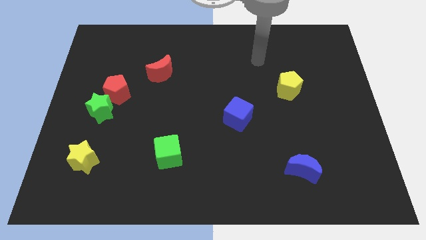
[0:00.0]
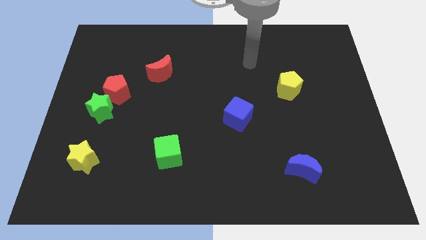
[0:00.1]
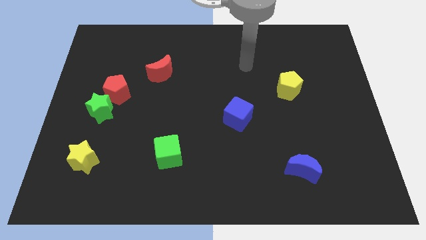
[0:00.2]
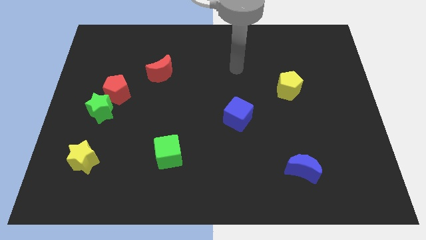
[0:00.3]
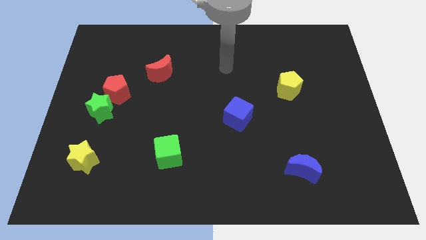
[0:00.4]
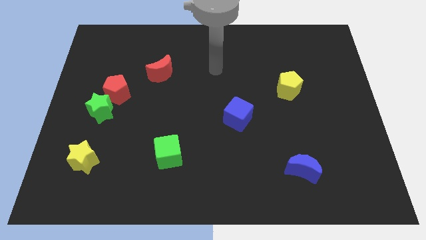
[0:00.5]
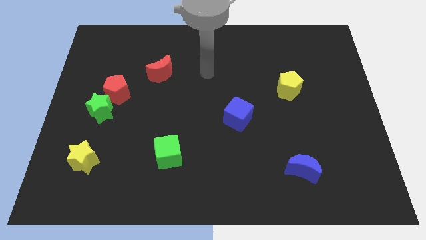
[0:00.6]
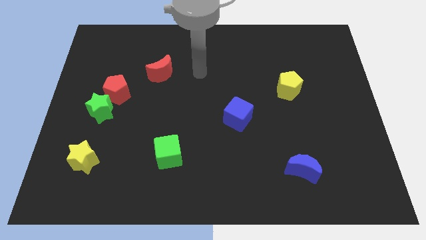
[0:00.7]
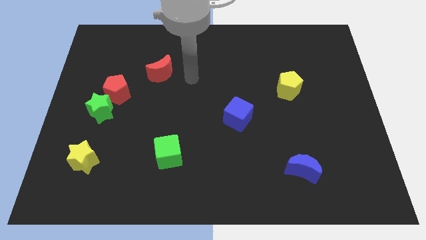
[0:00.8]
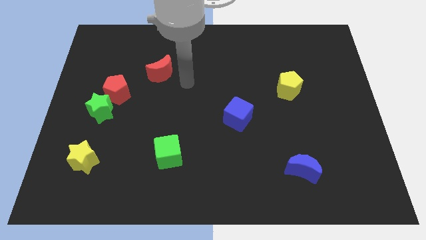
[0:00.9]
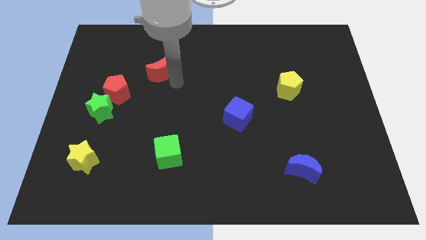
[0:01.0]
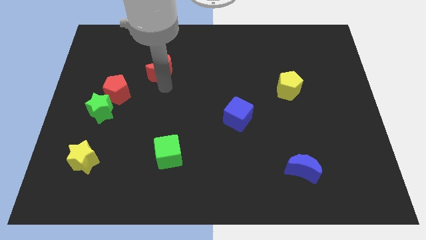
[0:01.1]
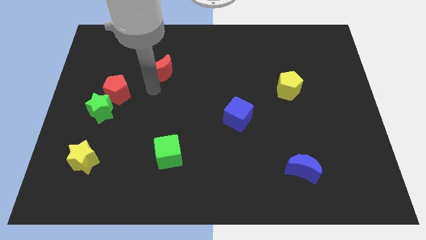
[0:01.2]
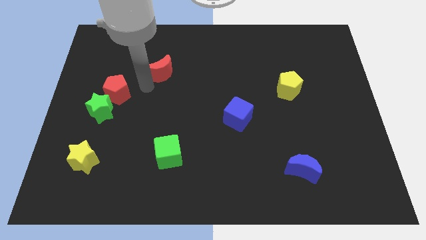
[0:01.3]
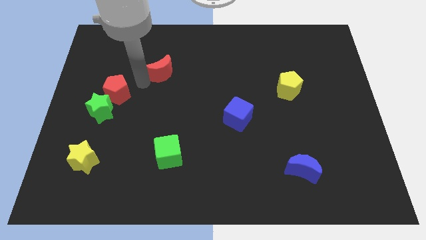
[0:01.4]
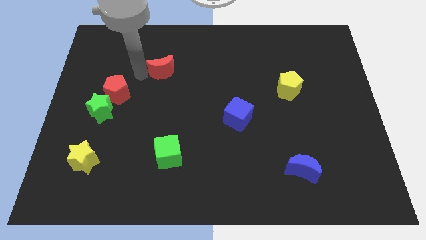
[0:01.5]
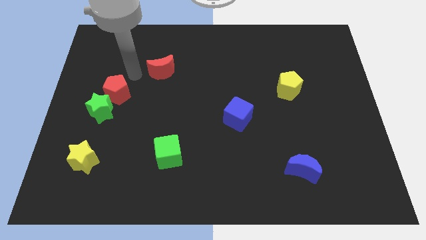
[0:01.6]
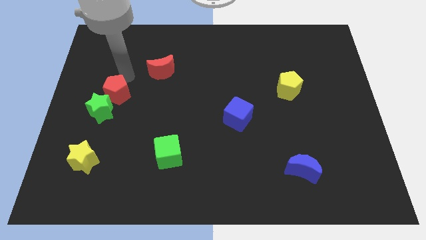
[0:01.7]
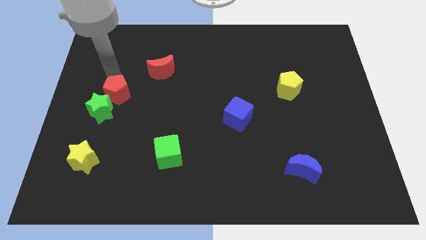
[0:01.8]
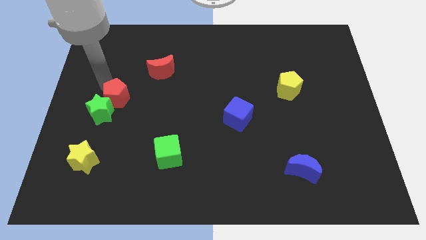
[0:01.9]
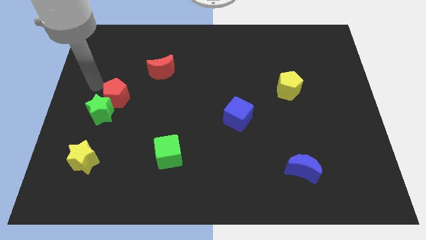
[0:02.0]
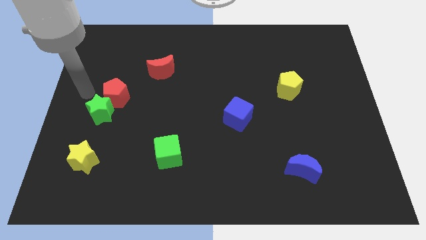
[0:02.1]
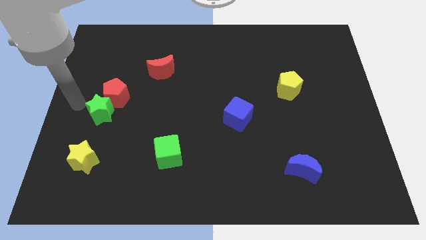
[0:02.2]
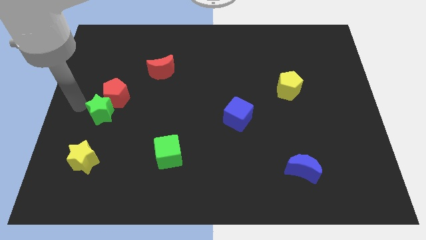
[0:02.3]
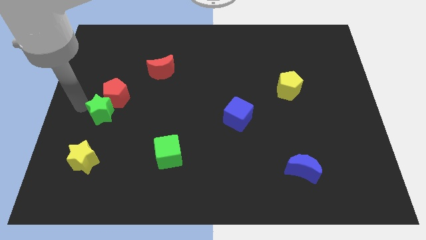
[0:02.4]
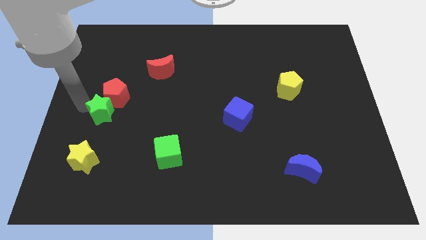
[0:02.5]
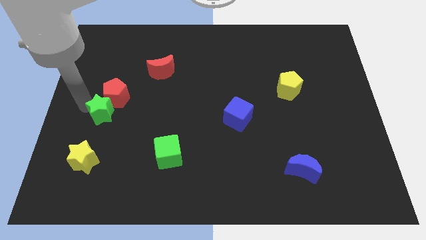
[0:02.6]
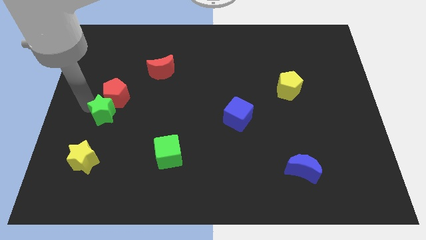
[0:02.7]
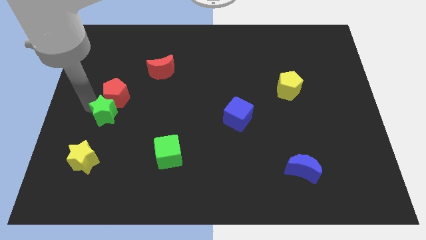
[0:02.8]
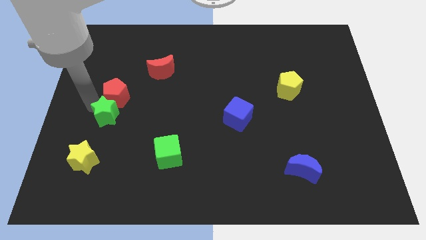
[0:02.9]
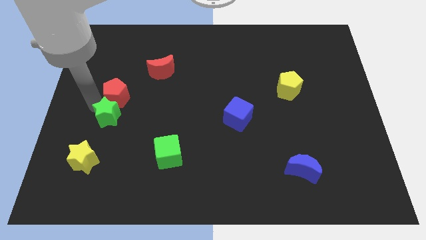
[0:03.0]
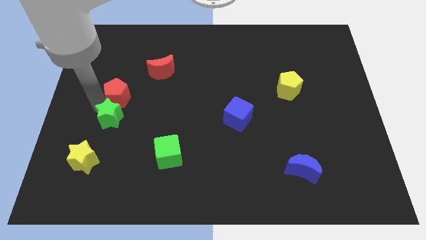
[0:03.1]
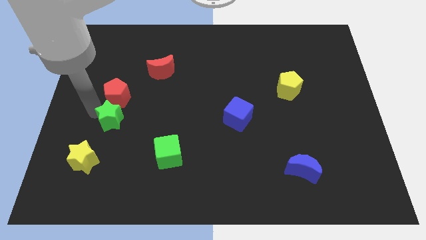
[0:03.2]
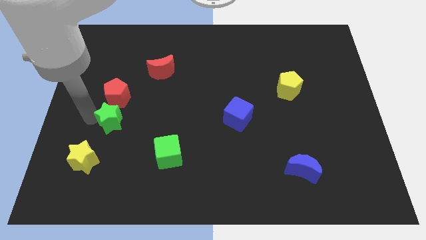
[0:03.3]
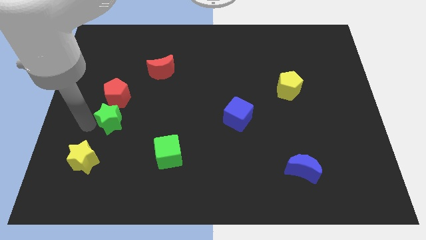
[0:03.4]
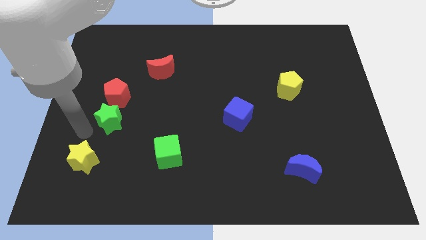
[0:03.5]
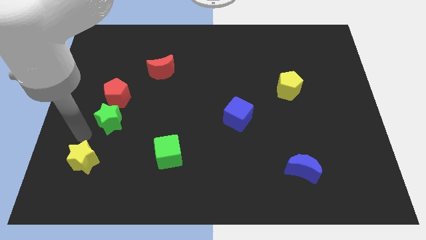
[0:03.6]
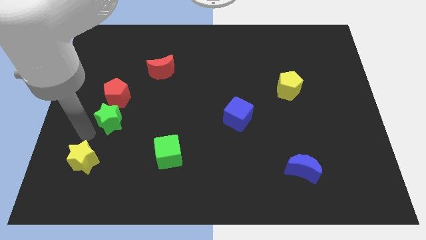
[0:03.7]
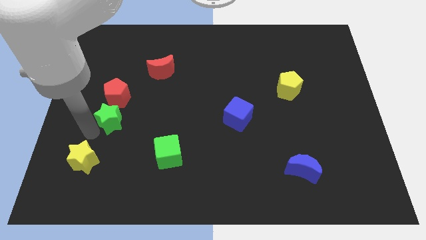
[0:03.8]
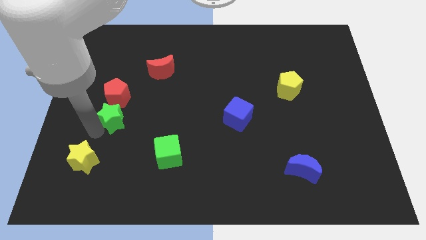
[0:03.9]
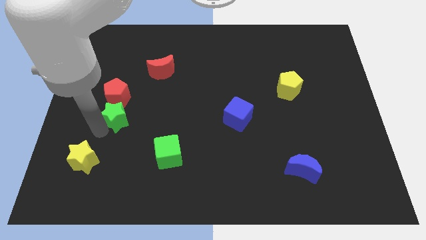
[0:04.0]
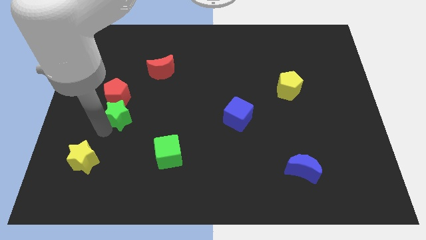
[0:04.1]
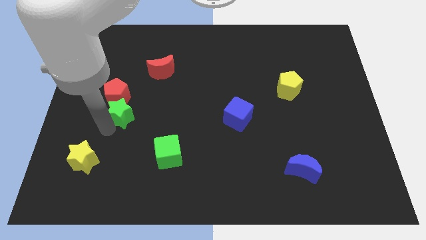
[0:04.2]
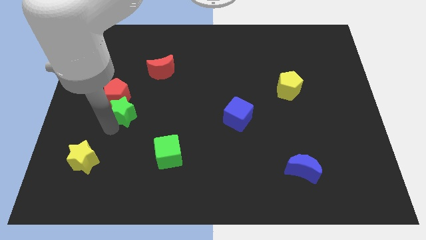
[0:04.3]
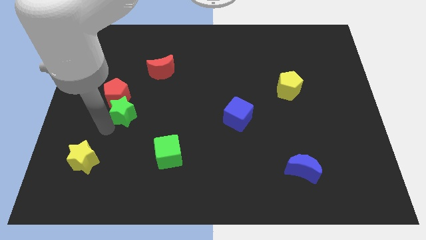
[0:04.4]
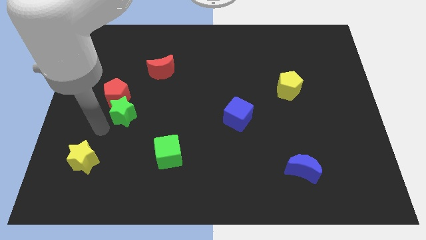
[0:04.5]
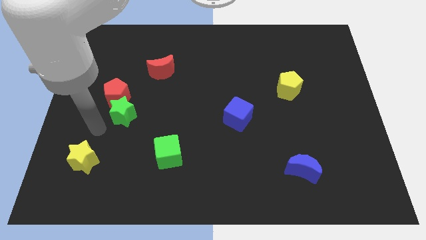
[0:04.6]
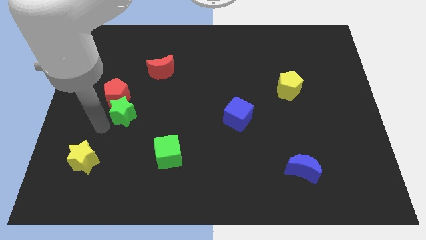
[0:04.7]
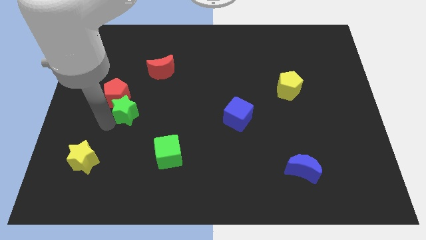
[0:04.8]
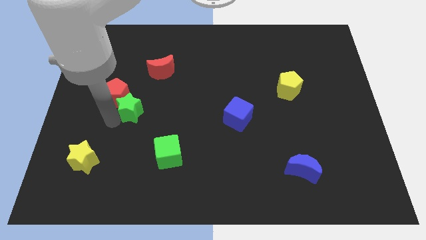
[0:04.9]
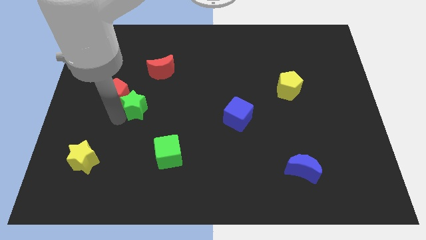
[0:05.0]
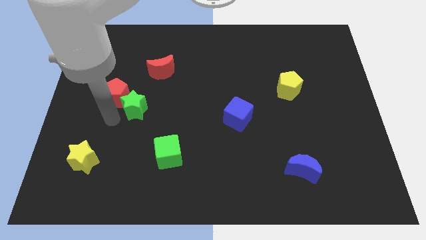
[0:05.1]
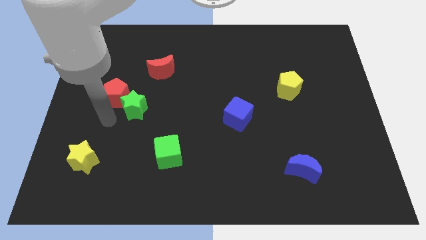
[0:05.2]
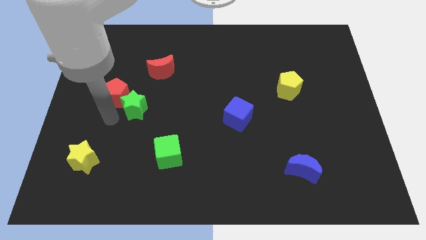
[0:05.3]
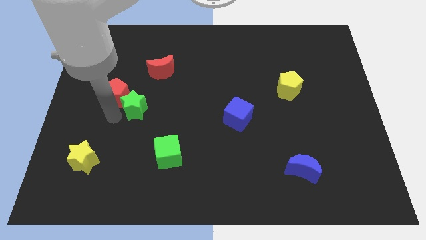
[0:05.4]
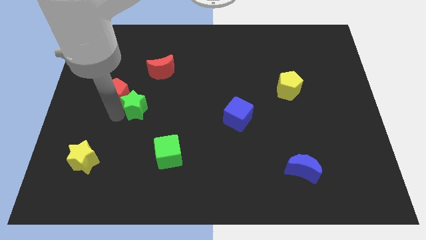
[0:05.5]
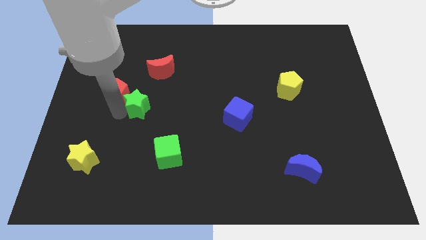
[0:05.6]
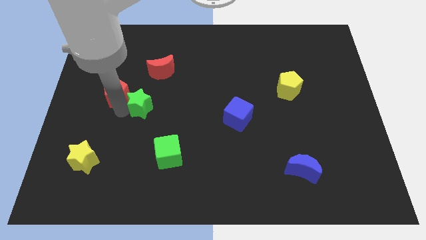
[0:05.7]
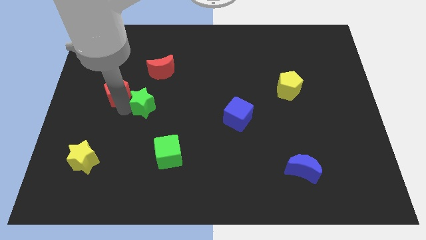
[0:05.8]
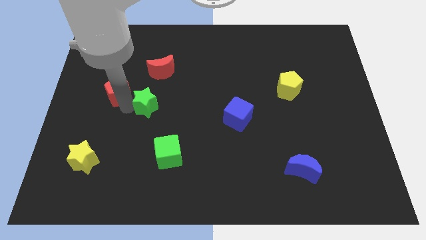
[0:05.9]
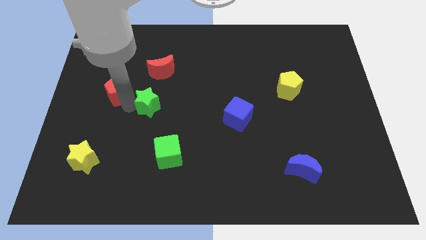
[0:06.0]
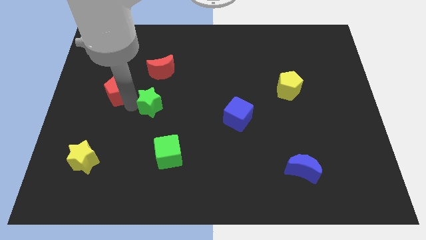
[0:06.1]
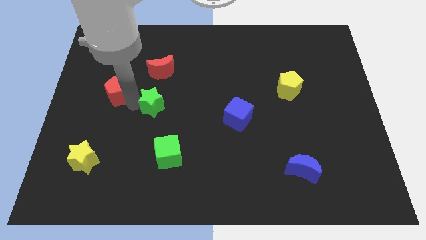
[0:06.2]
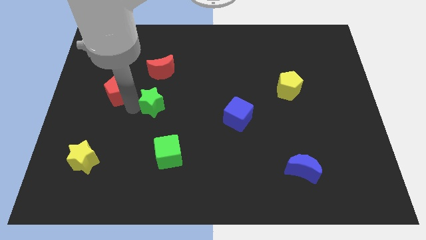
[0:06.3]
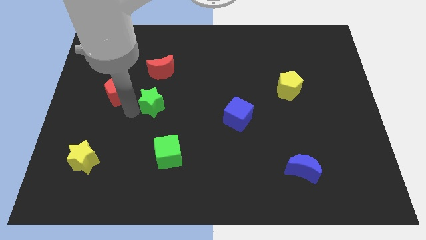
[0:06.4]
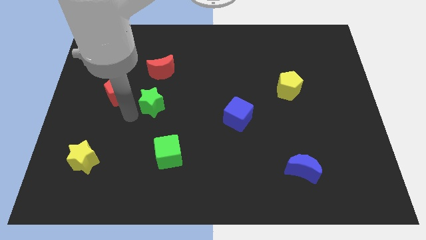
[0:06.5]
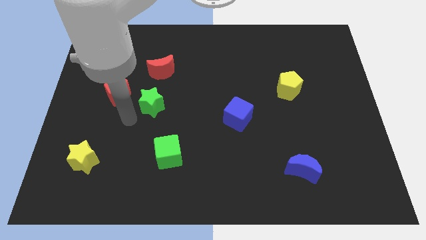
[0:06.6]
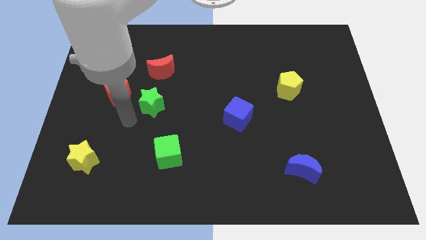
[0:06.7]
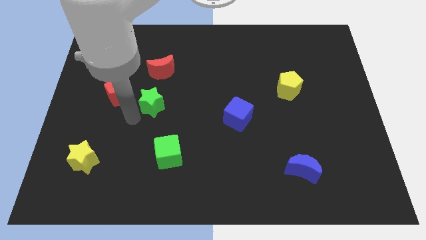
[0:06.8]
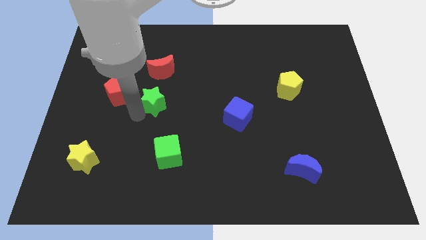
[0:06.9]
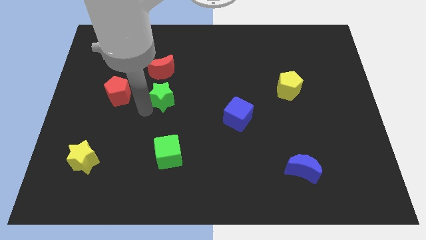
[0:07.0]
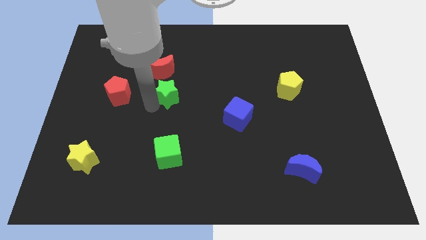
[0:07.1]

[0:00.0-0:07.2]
slide the green star to the bottom right of the red moon
